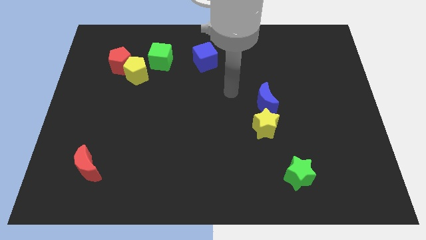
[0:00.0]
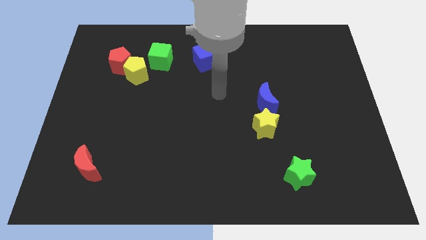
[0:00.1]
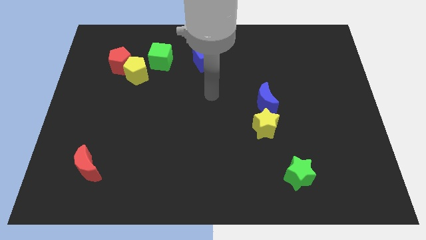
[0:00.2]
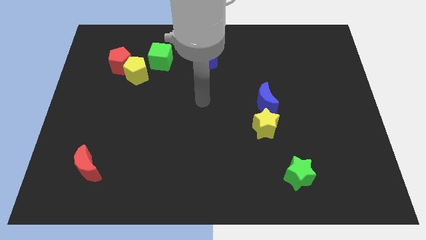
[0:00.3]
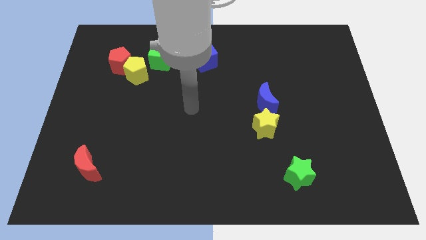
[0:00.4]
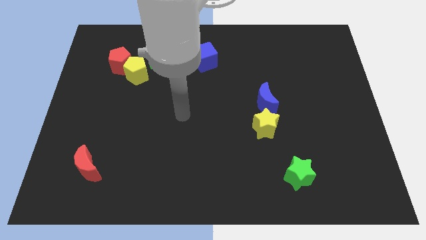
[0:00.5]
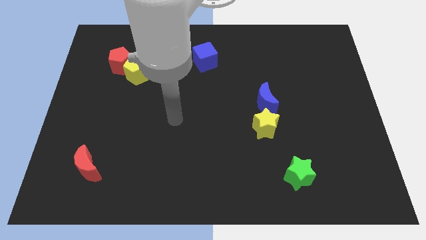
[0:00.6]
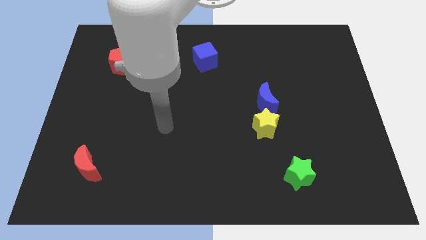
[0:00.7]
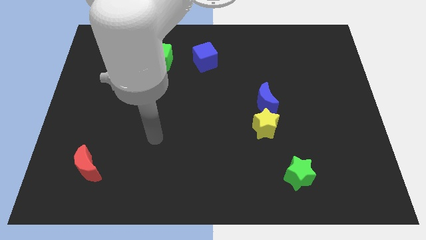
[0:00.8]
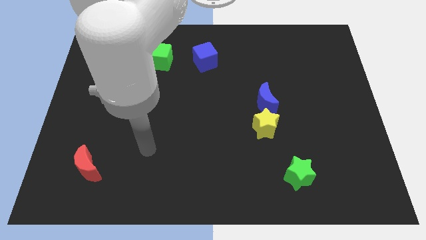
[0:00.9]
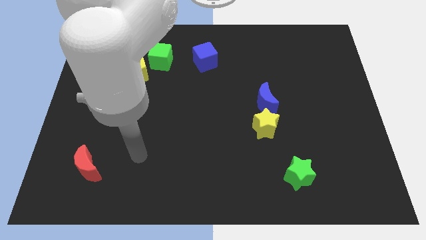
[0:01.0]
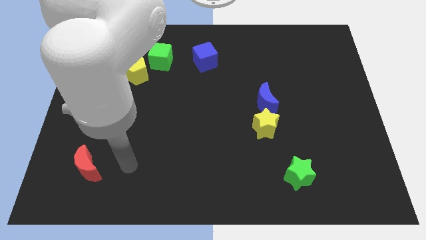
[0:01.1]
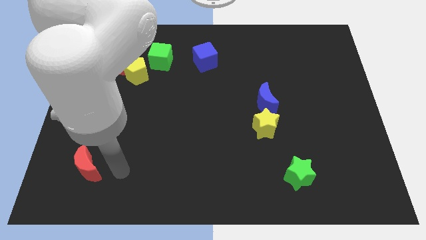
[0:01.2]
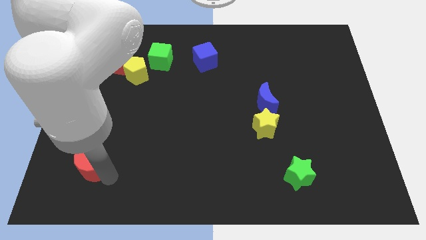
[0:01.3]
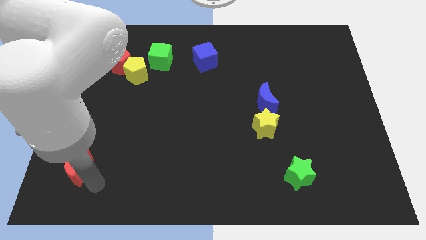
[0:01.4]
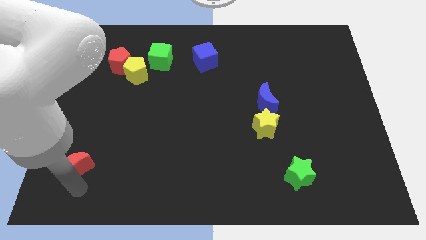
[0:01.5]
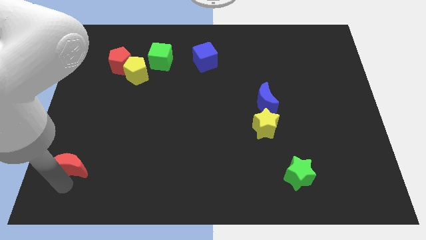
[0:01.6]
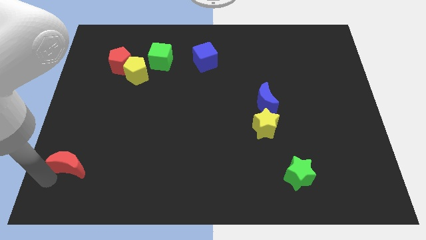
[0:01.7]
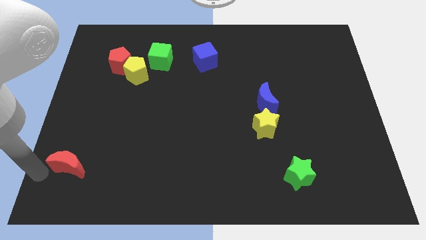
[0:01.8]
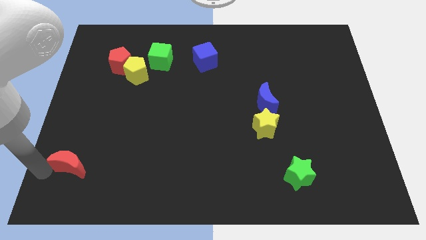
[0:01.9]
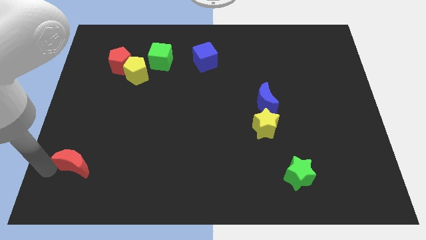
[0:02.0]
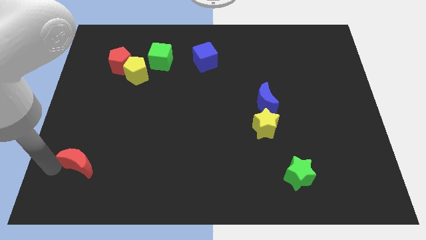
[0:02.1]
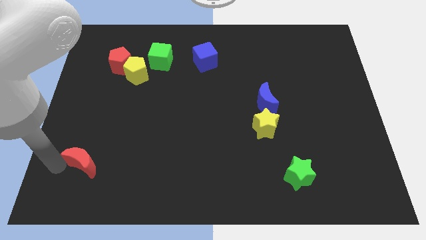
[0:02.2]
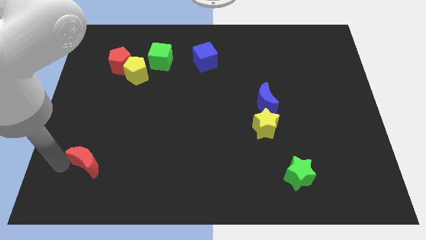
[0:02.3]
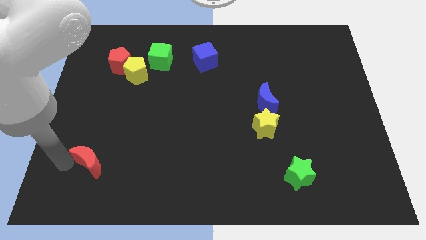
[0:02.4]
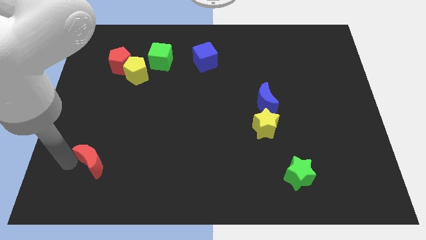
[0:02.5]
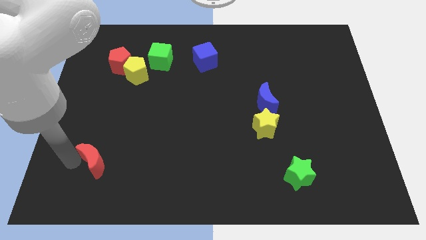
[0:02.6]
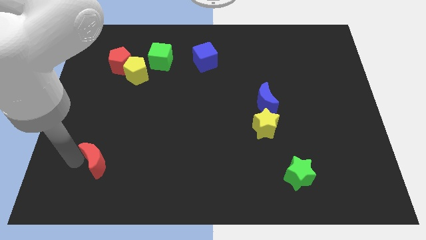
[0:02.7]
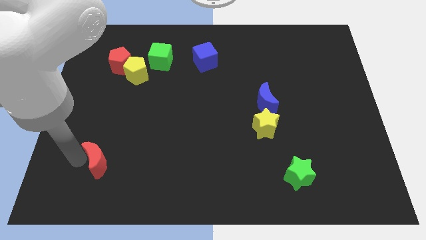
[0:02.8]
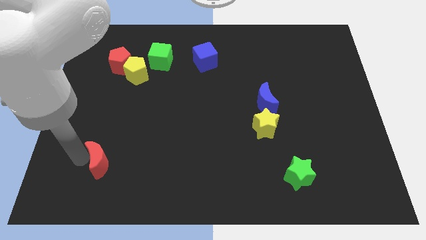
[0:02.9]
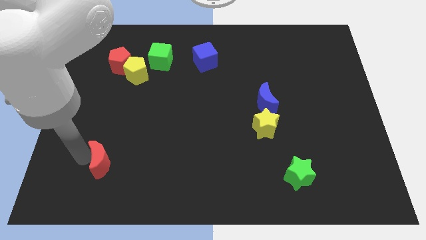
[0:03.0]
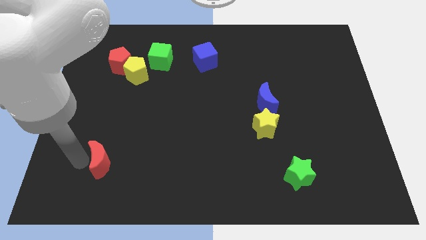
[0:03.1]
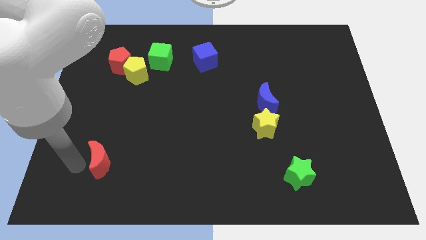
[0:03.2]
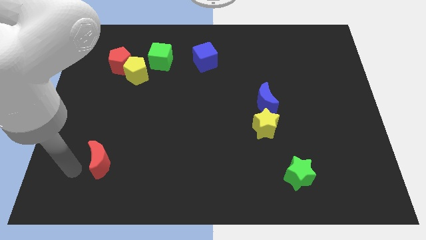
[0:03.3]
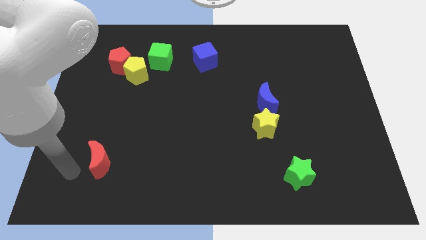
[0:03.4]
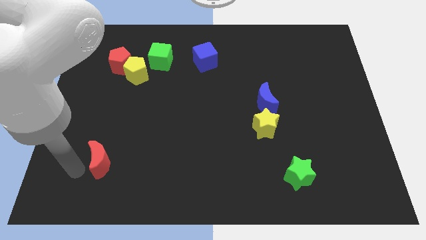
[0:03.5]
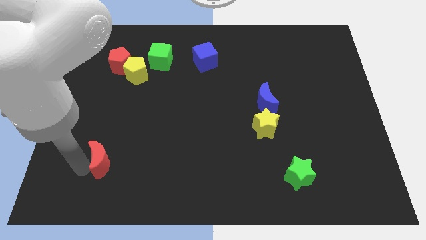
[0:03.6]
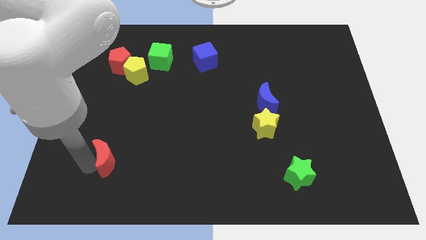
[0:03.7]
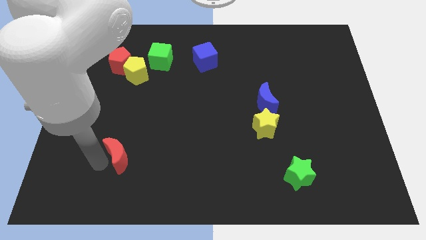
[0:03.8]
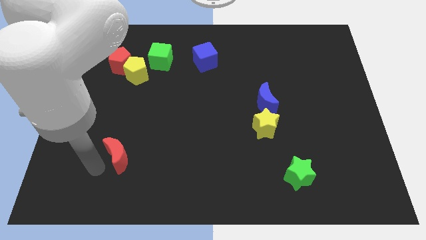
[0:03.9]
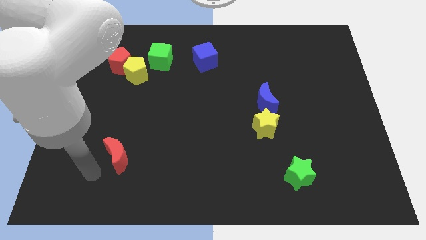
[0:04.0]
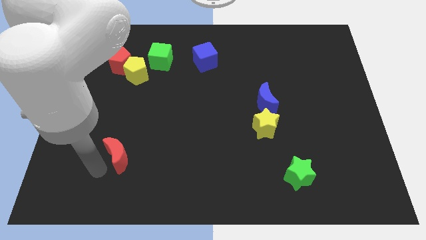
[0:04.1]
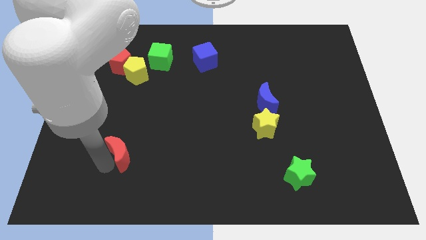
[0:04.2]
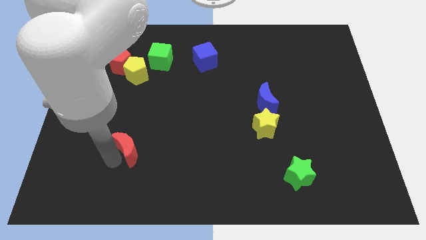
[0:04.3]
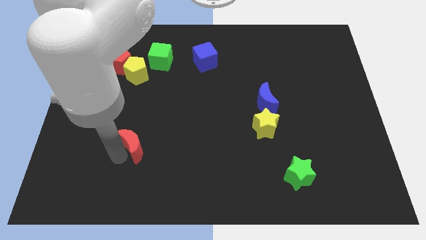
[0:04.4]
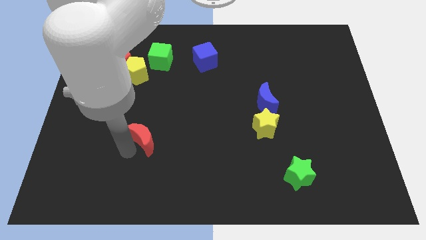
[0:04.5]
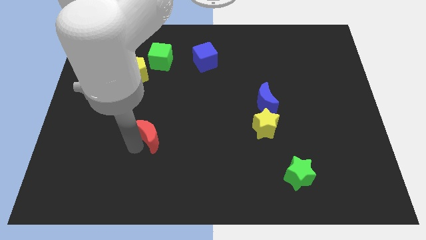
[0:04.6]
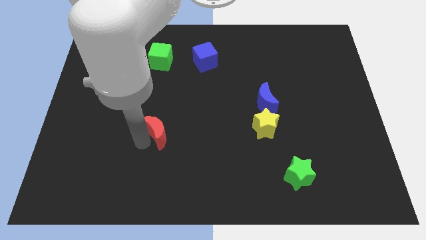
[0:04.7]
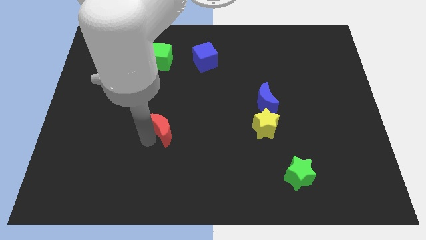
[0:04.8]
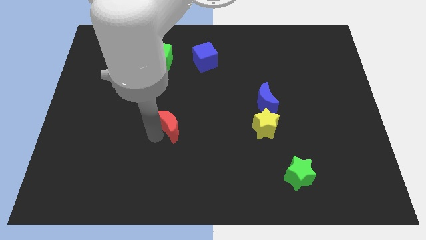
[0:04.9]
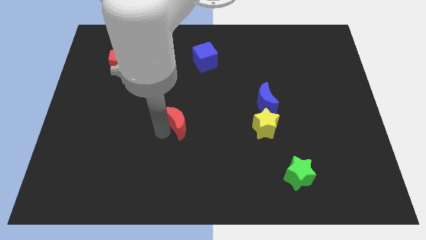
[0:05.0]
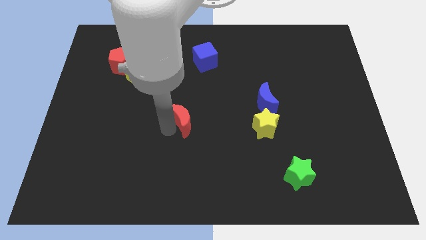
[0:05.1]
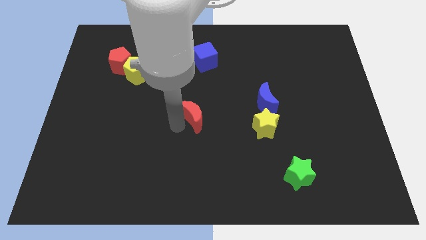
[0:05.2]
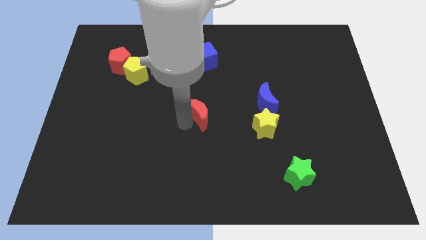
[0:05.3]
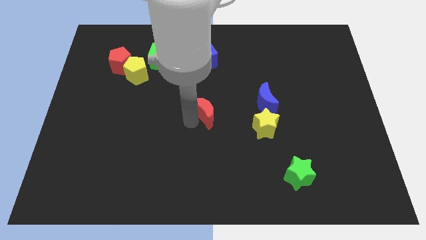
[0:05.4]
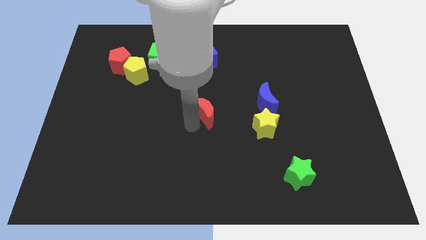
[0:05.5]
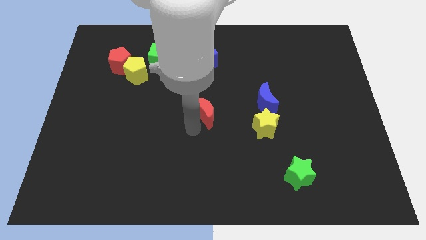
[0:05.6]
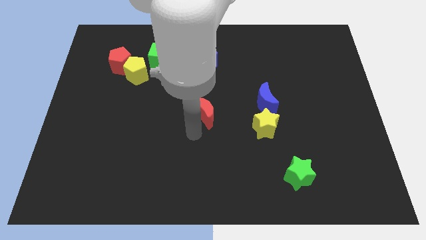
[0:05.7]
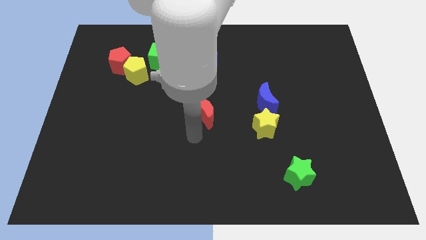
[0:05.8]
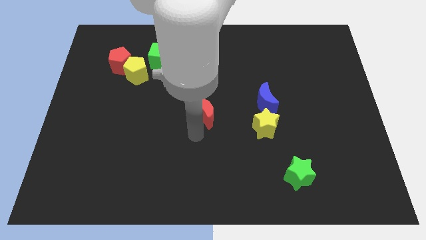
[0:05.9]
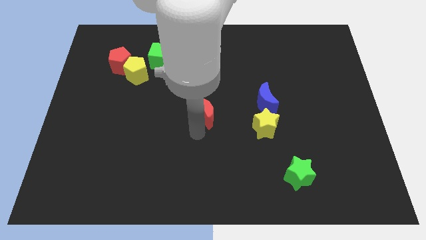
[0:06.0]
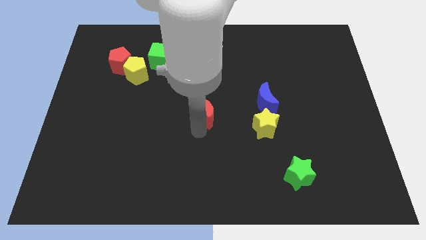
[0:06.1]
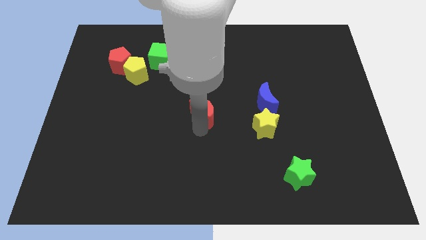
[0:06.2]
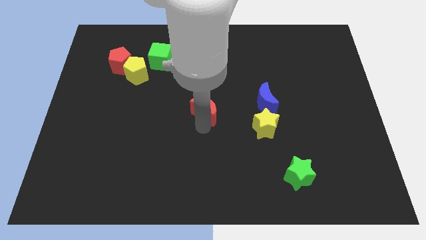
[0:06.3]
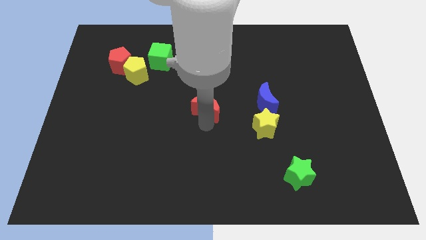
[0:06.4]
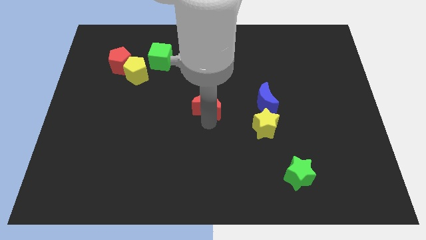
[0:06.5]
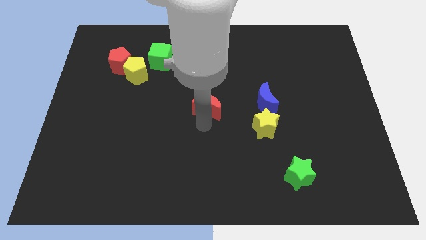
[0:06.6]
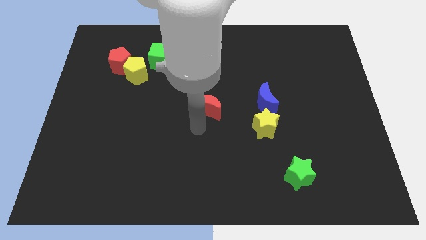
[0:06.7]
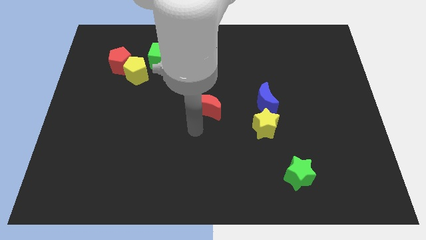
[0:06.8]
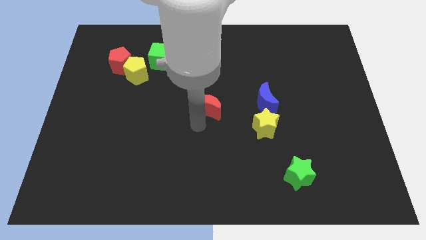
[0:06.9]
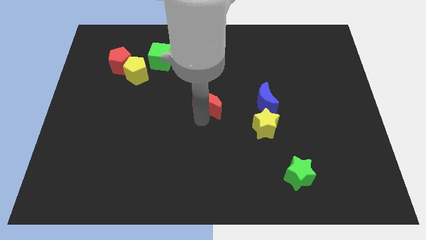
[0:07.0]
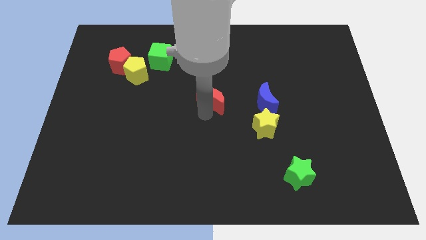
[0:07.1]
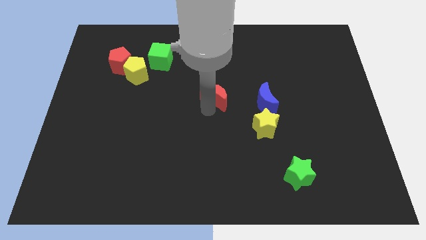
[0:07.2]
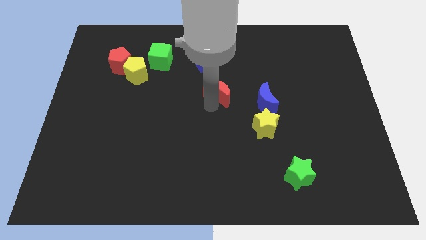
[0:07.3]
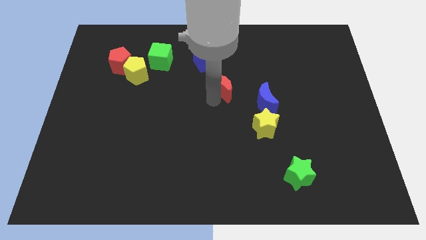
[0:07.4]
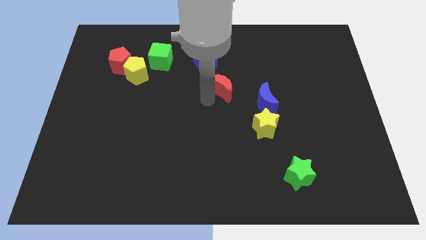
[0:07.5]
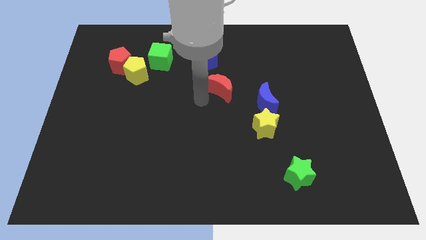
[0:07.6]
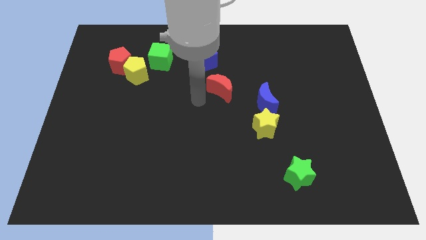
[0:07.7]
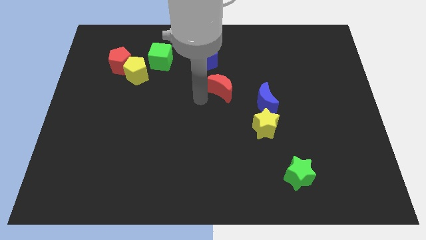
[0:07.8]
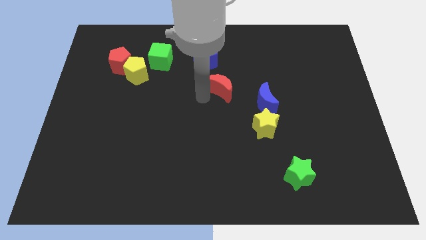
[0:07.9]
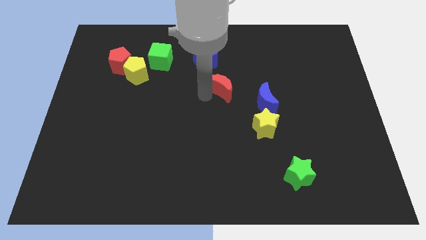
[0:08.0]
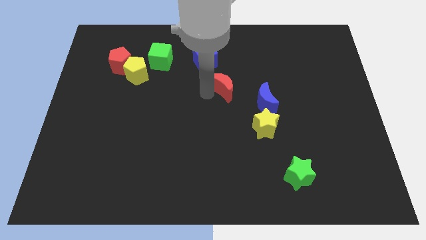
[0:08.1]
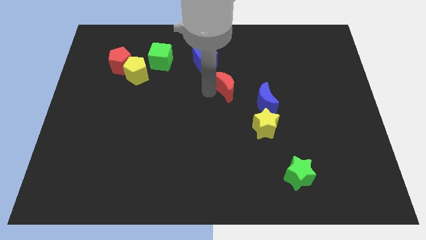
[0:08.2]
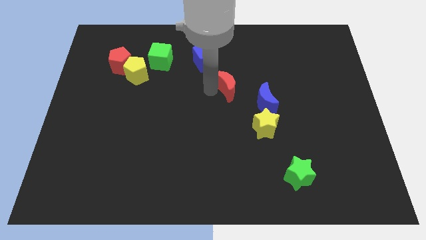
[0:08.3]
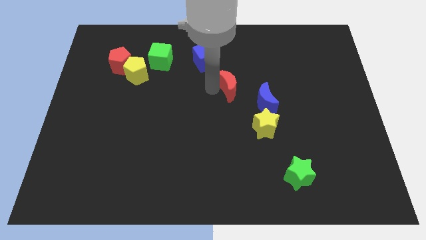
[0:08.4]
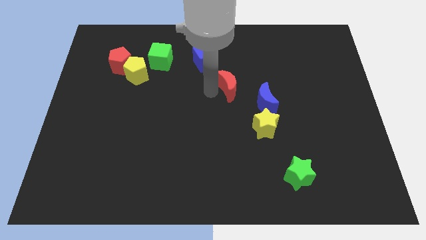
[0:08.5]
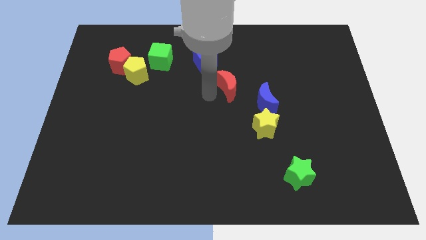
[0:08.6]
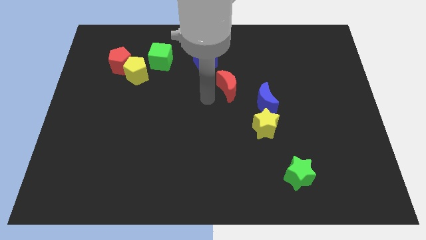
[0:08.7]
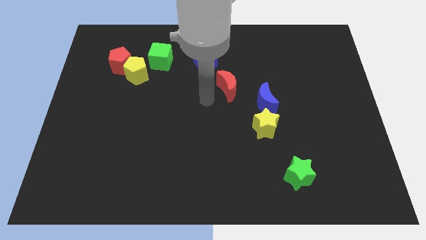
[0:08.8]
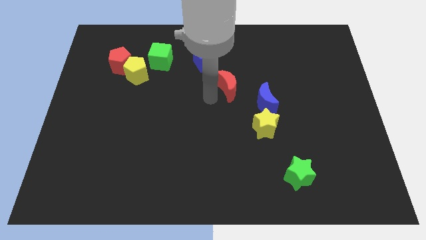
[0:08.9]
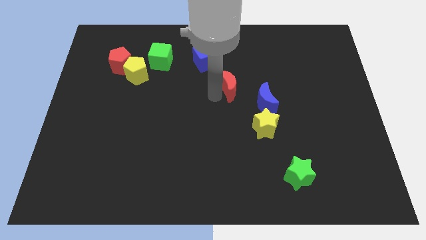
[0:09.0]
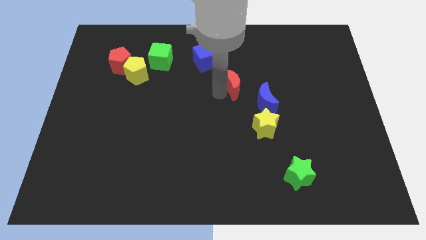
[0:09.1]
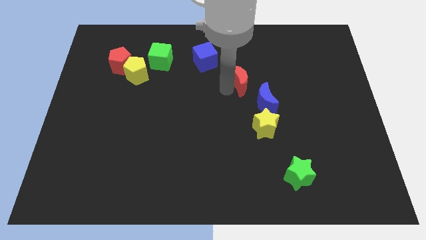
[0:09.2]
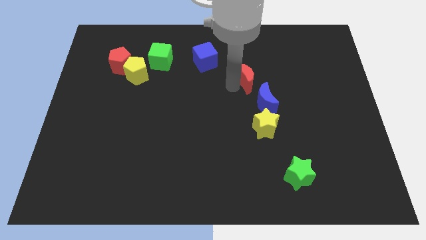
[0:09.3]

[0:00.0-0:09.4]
push the red moon above the blue moon
